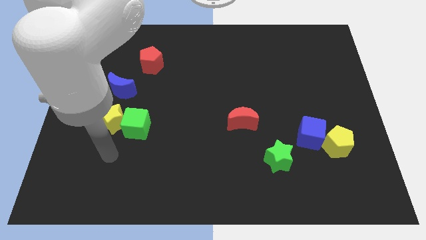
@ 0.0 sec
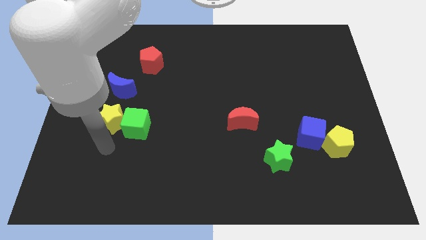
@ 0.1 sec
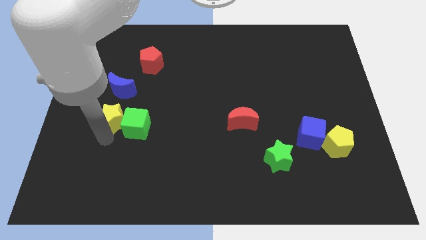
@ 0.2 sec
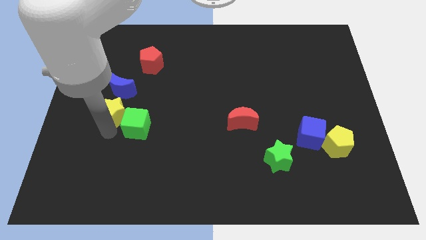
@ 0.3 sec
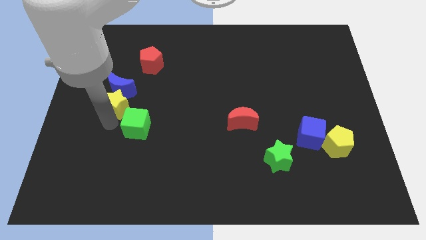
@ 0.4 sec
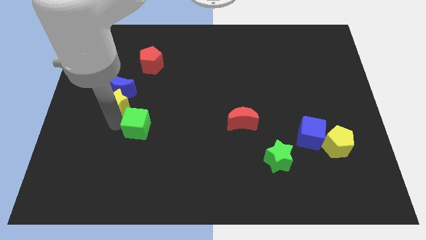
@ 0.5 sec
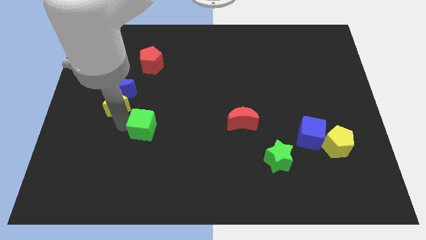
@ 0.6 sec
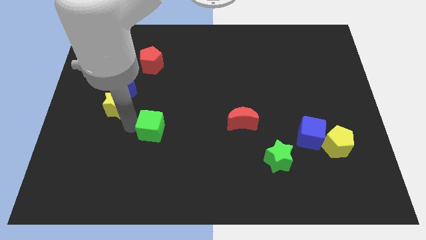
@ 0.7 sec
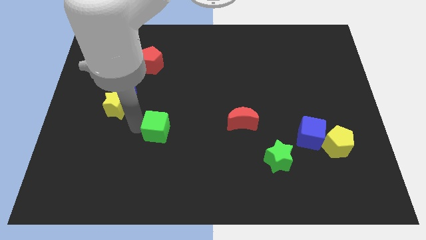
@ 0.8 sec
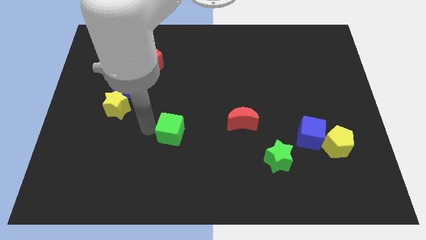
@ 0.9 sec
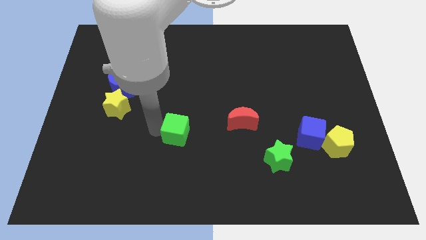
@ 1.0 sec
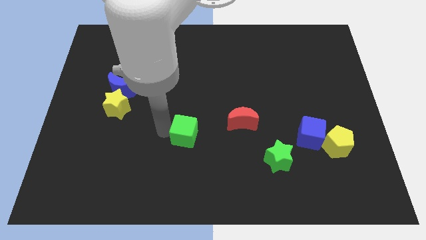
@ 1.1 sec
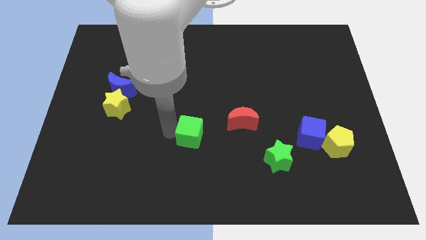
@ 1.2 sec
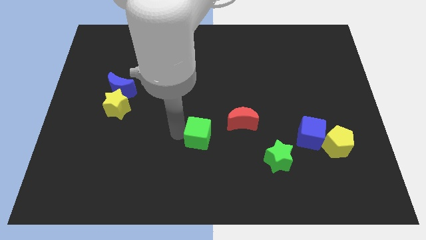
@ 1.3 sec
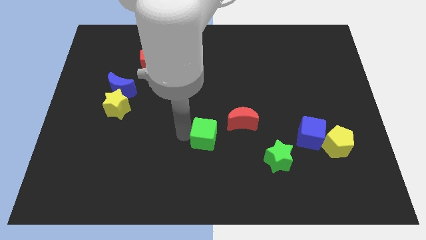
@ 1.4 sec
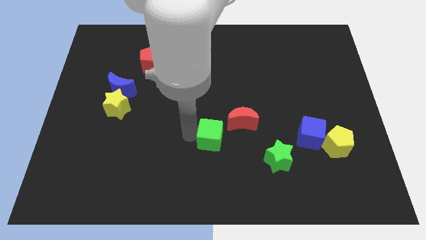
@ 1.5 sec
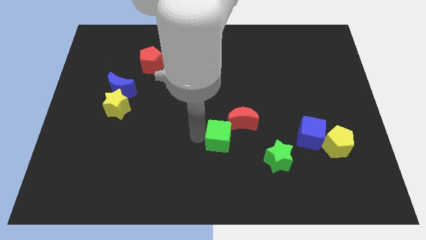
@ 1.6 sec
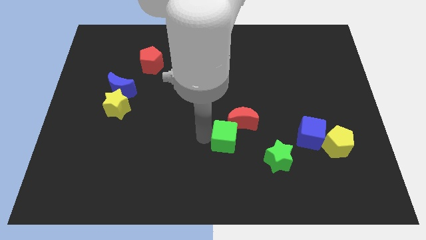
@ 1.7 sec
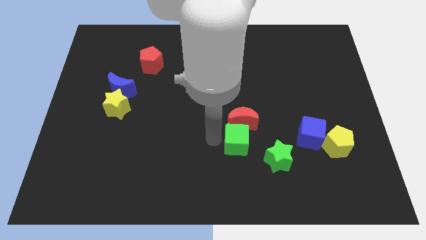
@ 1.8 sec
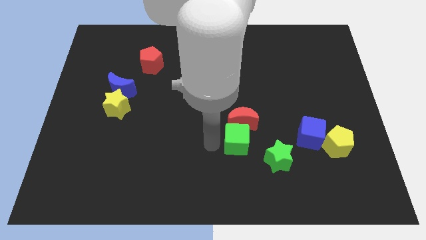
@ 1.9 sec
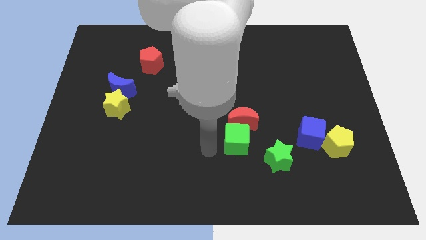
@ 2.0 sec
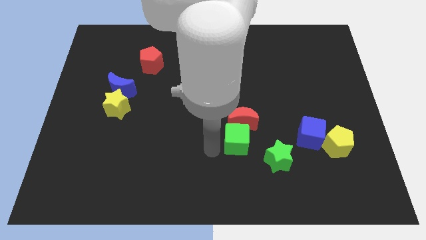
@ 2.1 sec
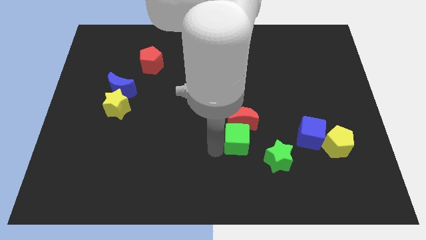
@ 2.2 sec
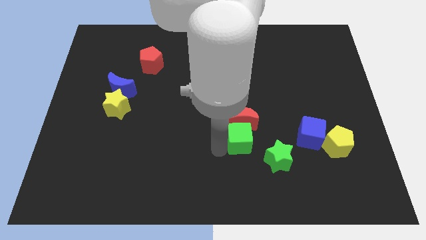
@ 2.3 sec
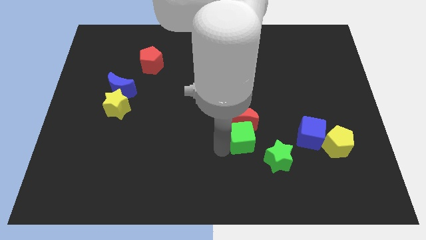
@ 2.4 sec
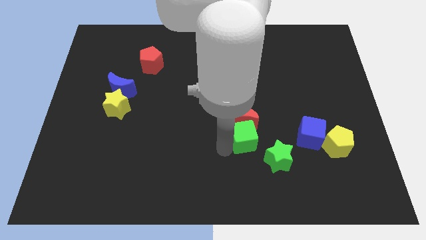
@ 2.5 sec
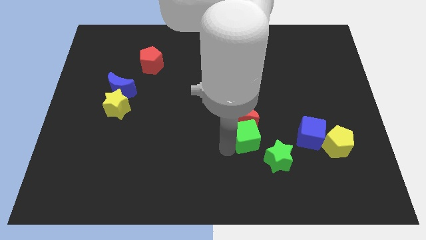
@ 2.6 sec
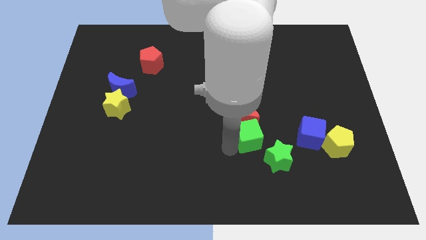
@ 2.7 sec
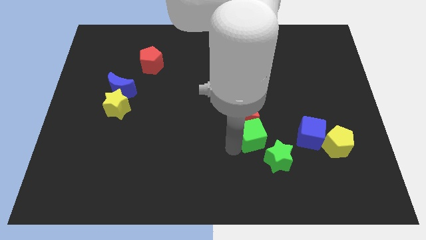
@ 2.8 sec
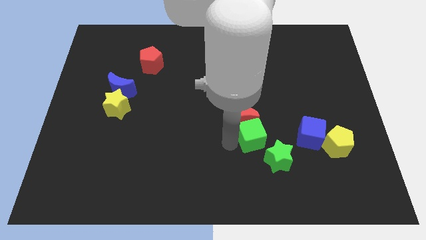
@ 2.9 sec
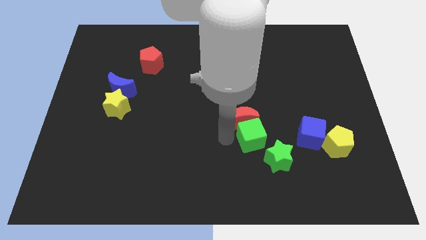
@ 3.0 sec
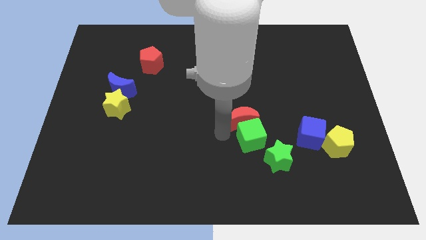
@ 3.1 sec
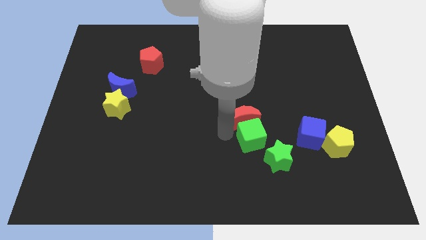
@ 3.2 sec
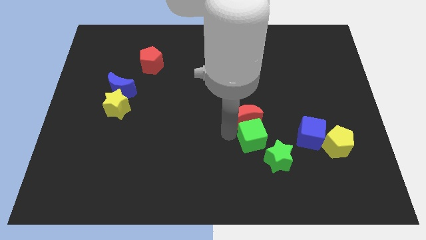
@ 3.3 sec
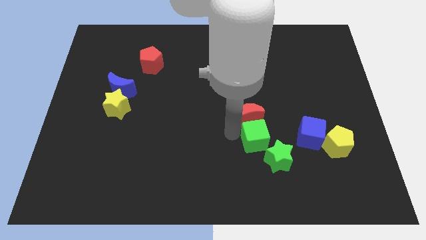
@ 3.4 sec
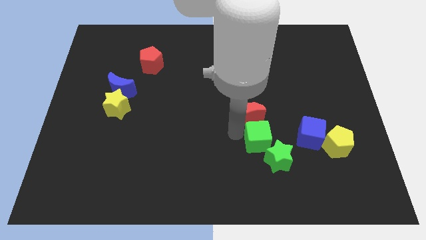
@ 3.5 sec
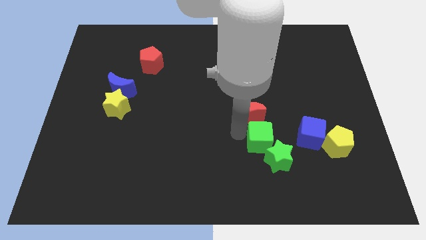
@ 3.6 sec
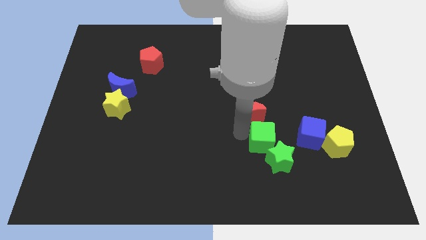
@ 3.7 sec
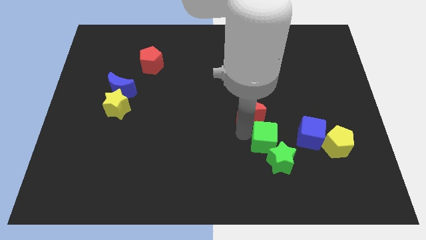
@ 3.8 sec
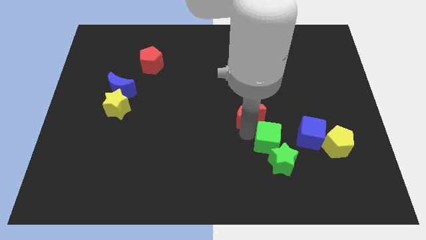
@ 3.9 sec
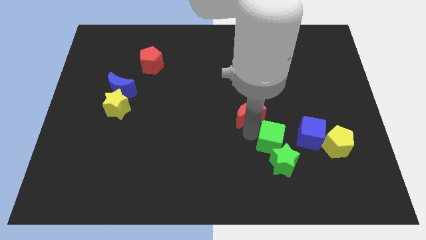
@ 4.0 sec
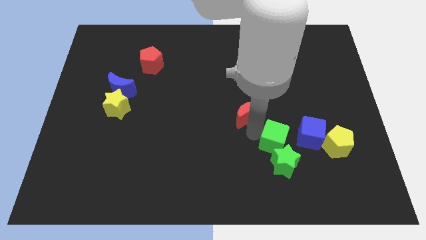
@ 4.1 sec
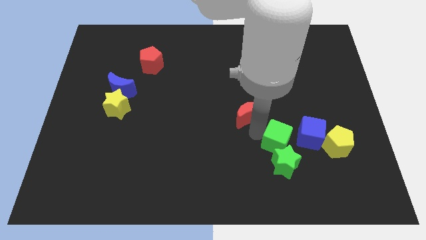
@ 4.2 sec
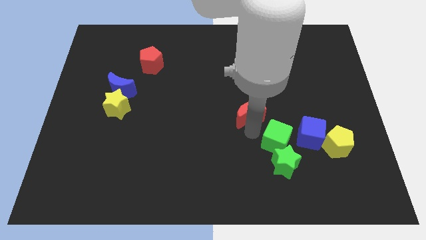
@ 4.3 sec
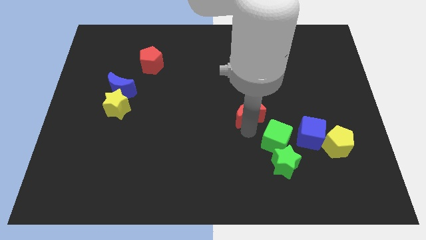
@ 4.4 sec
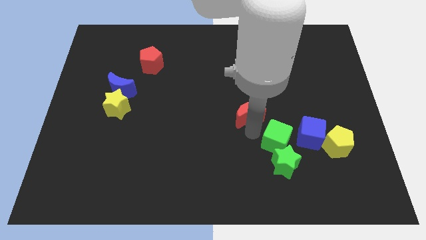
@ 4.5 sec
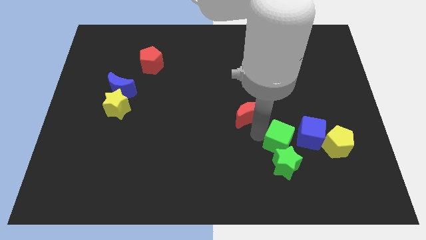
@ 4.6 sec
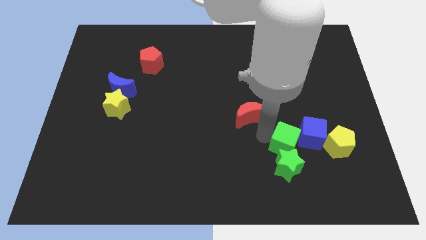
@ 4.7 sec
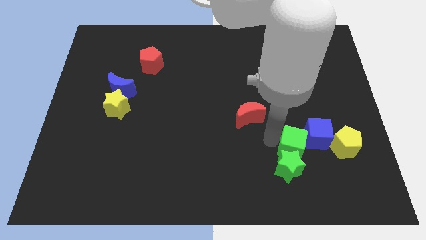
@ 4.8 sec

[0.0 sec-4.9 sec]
push the green cube to the blue cube

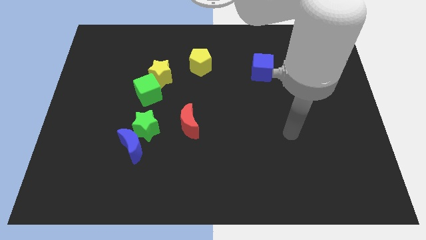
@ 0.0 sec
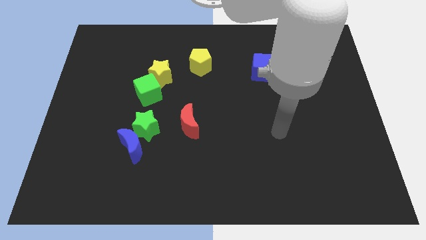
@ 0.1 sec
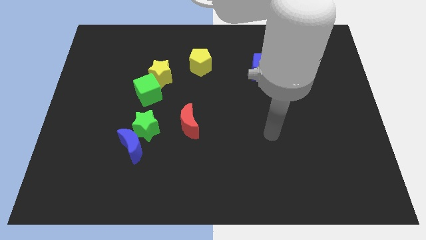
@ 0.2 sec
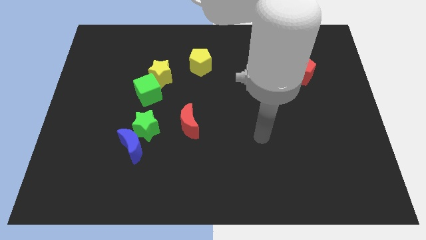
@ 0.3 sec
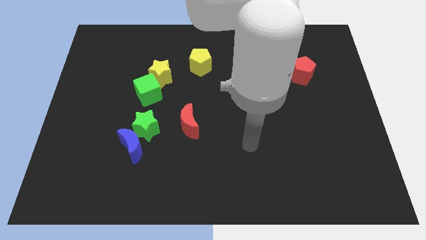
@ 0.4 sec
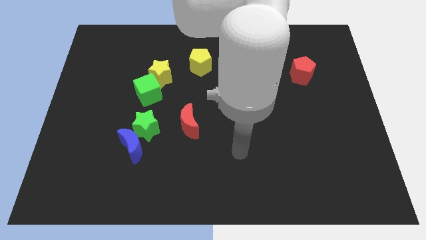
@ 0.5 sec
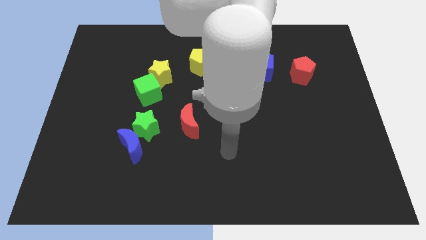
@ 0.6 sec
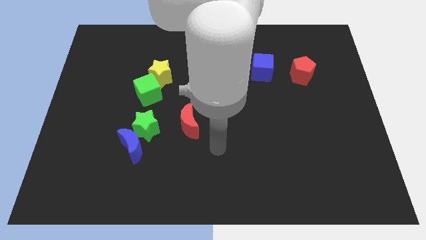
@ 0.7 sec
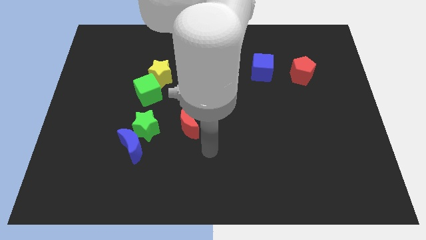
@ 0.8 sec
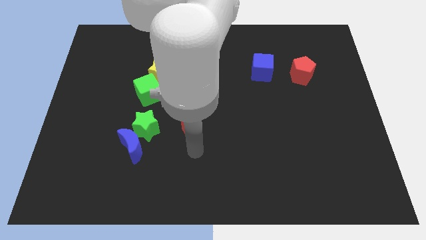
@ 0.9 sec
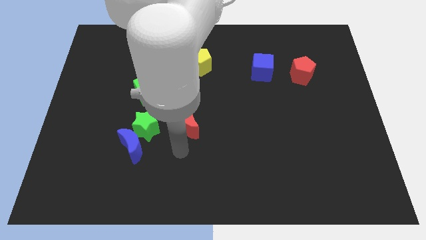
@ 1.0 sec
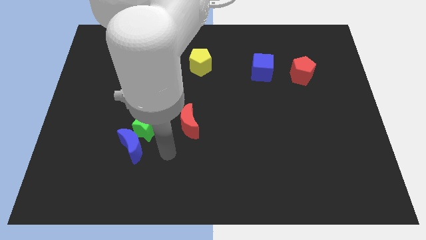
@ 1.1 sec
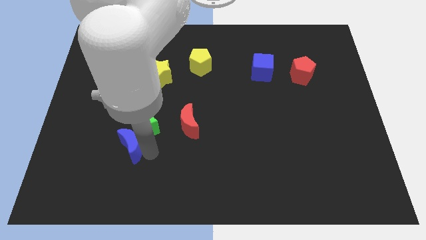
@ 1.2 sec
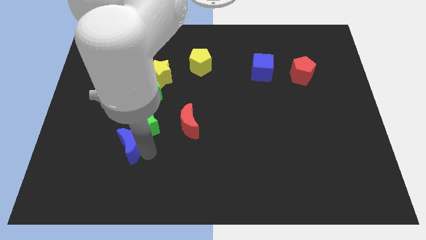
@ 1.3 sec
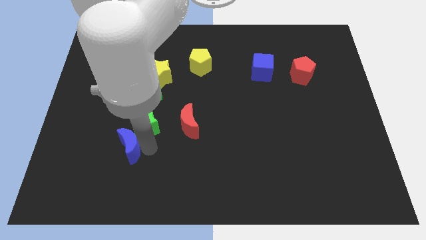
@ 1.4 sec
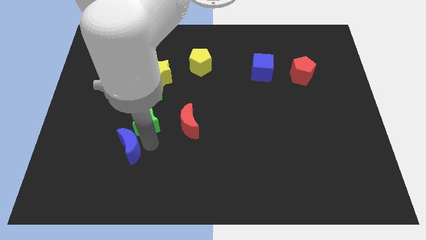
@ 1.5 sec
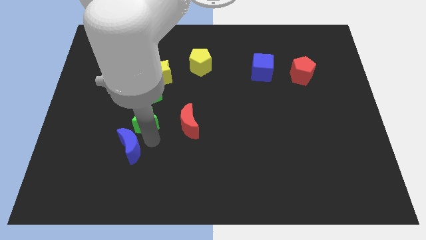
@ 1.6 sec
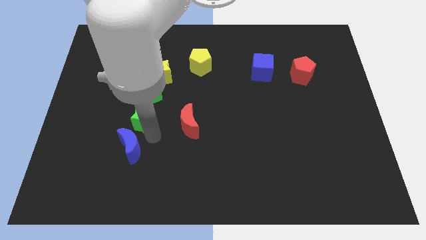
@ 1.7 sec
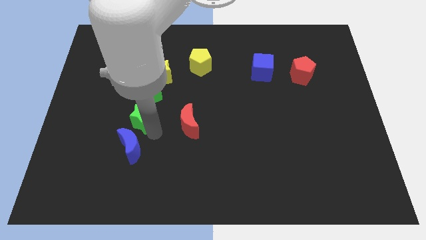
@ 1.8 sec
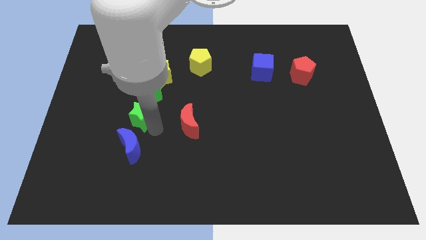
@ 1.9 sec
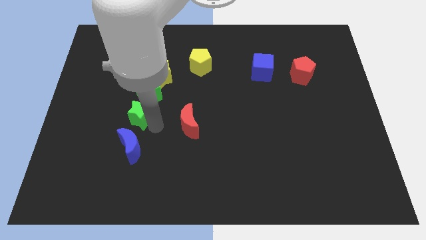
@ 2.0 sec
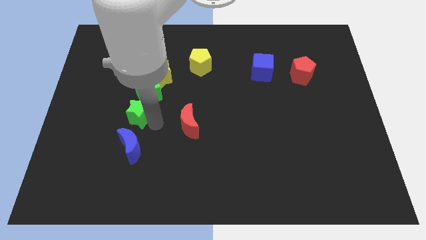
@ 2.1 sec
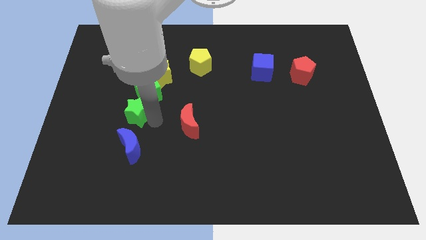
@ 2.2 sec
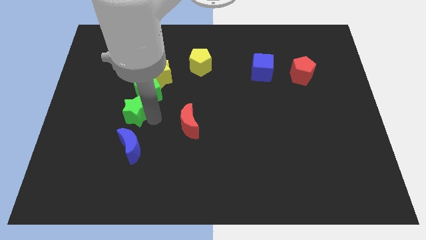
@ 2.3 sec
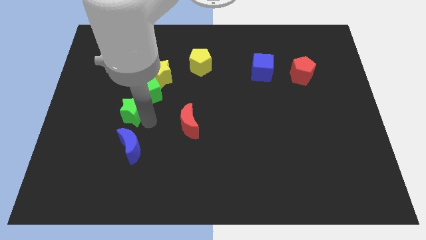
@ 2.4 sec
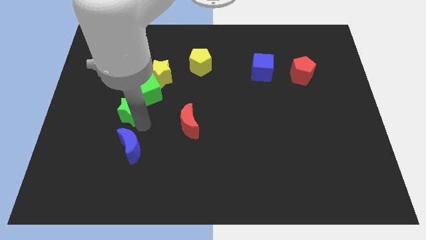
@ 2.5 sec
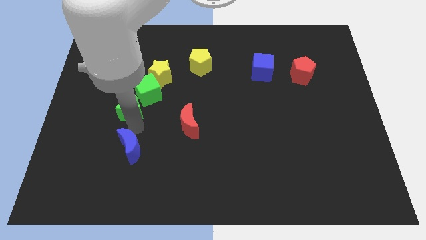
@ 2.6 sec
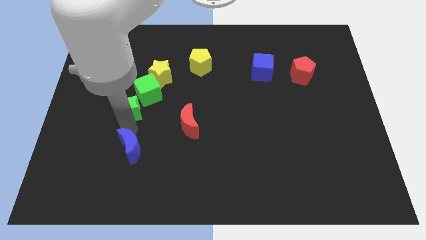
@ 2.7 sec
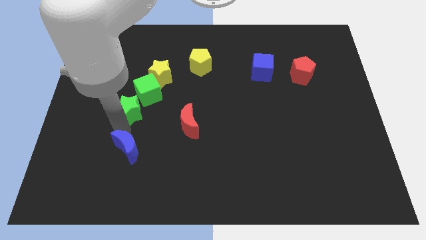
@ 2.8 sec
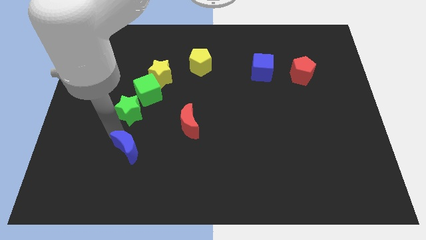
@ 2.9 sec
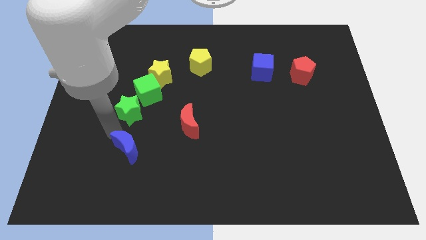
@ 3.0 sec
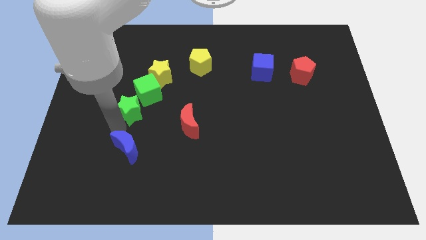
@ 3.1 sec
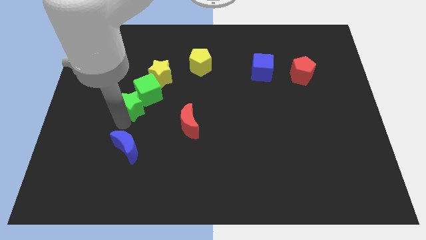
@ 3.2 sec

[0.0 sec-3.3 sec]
move the green star towards the green cube
